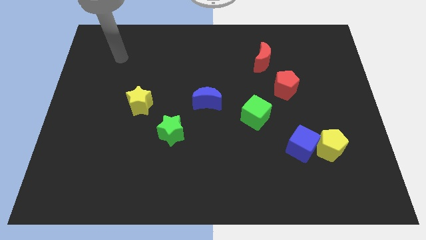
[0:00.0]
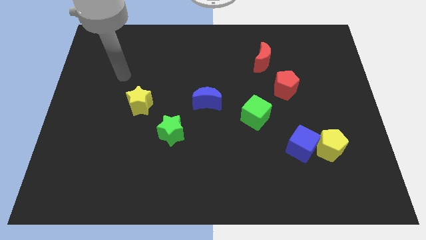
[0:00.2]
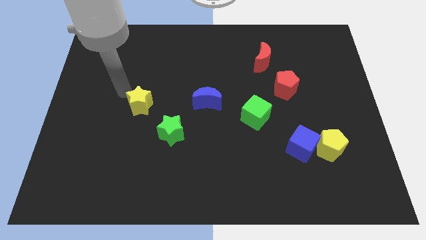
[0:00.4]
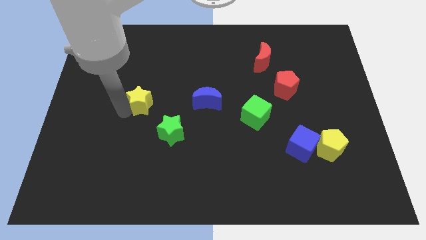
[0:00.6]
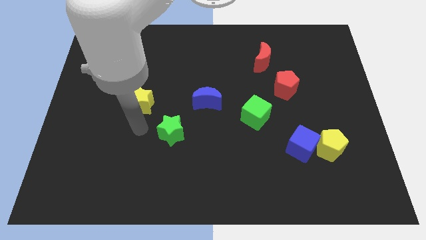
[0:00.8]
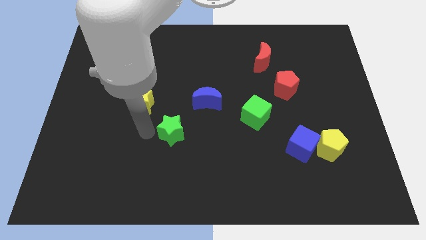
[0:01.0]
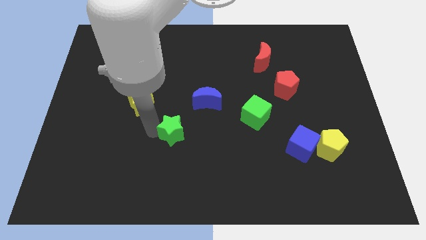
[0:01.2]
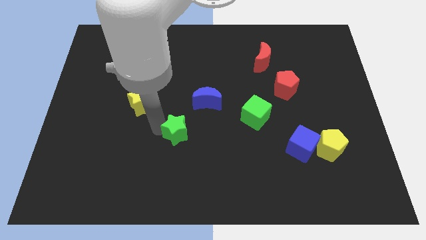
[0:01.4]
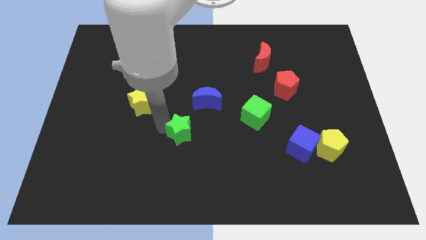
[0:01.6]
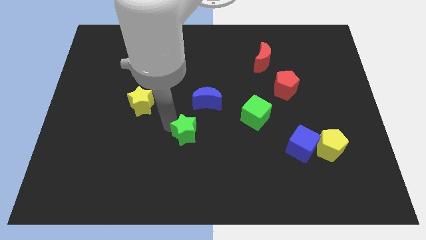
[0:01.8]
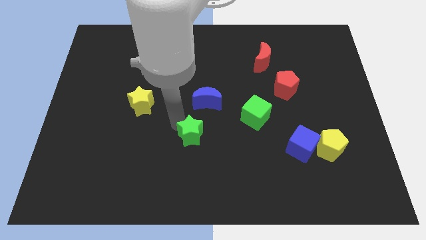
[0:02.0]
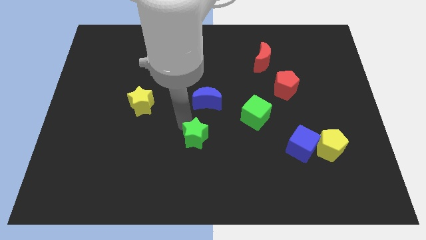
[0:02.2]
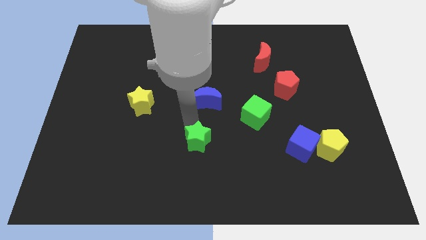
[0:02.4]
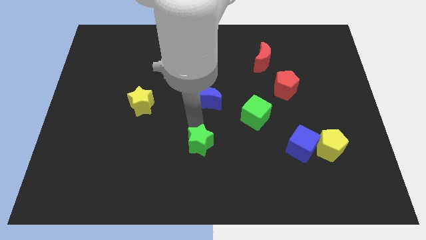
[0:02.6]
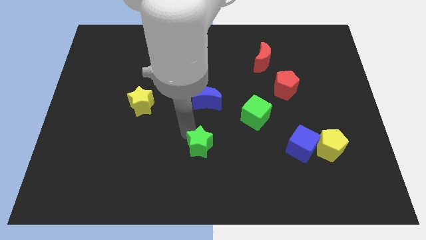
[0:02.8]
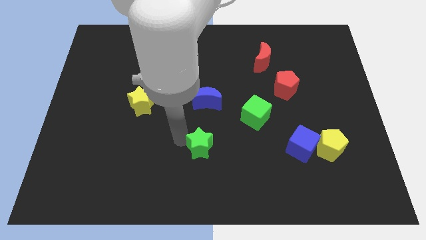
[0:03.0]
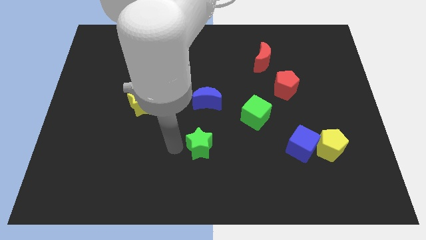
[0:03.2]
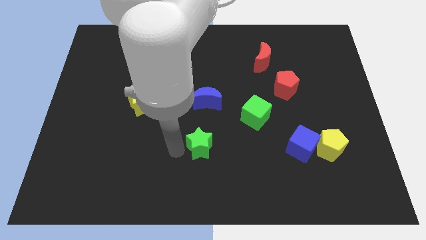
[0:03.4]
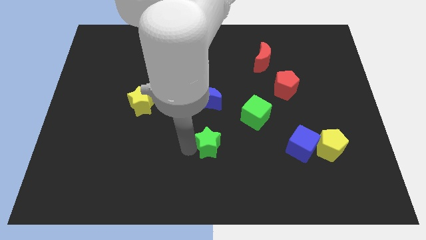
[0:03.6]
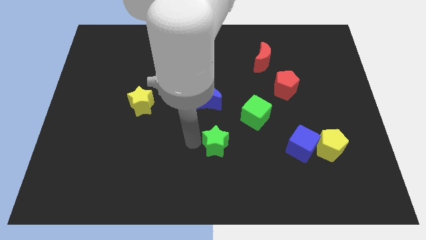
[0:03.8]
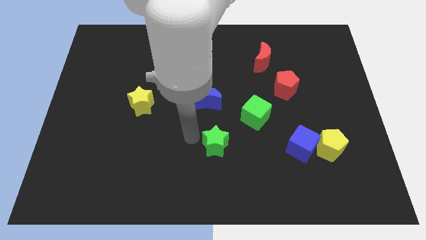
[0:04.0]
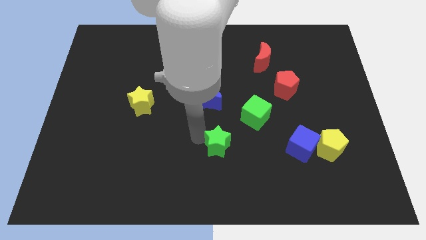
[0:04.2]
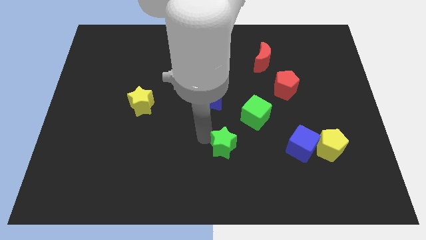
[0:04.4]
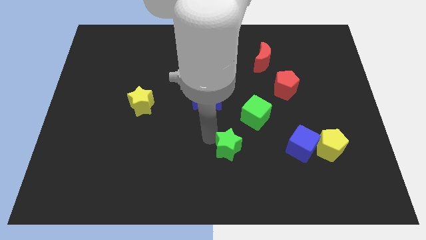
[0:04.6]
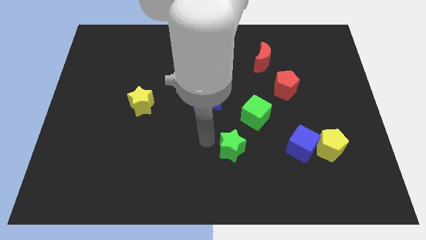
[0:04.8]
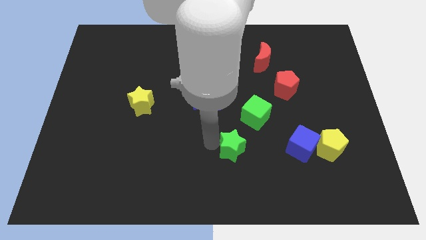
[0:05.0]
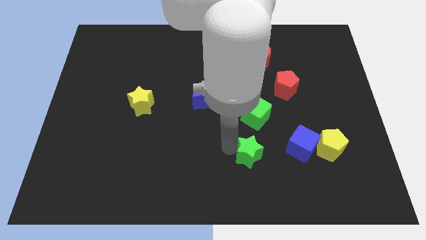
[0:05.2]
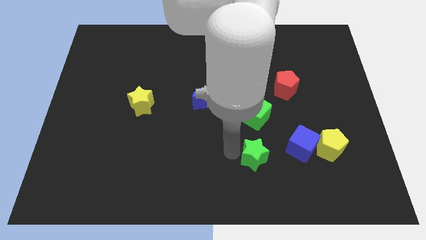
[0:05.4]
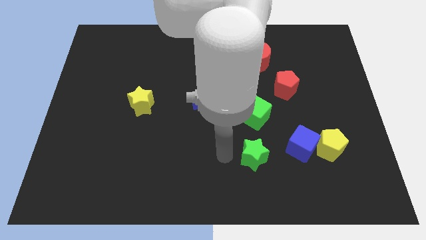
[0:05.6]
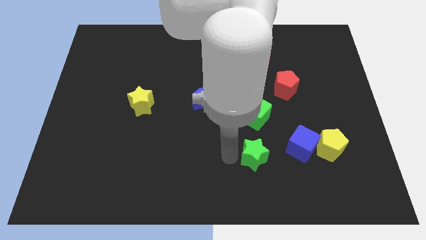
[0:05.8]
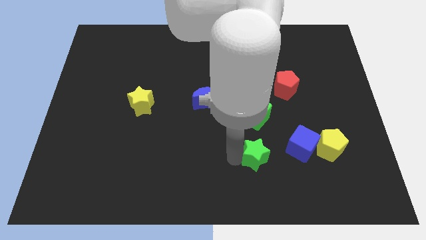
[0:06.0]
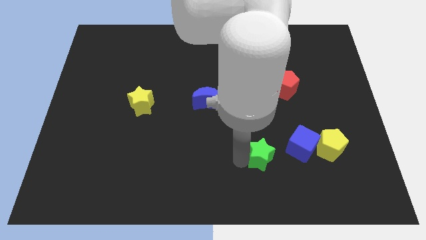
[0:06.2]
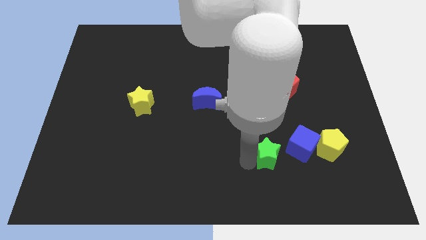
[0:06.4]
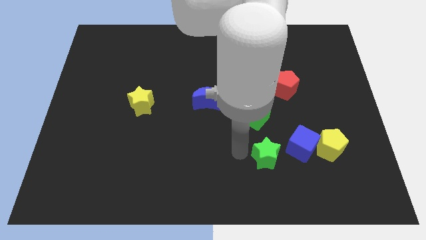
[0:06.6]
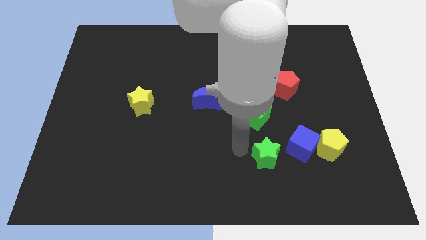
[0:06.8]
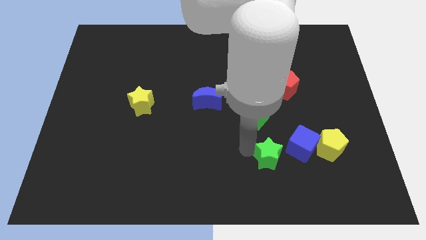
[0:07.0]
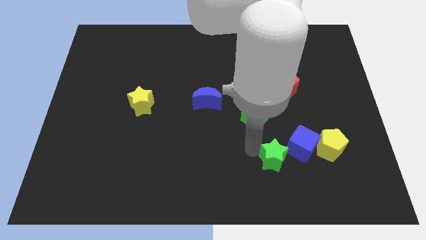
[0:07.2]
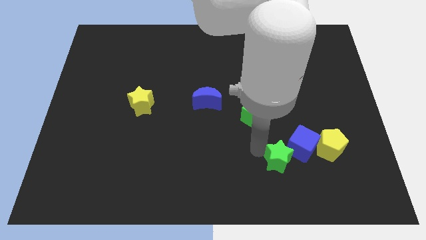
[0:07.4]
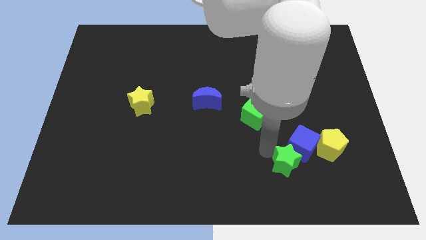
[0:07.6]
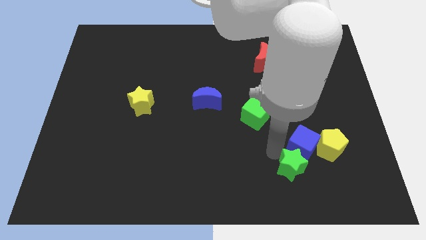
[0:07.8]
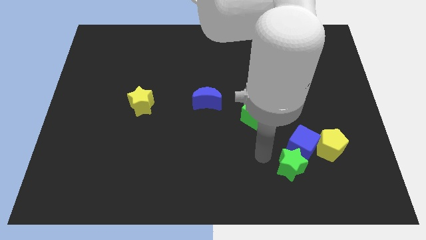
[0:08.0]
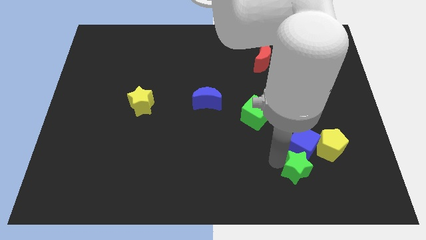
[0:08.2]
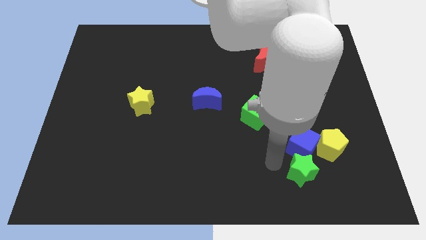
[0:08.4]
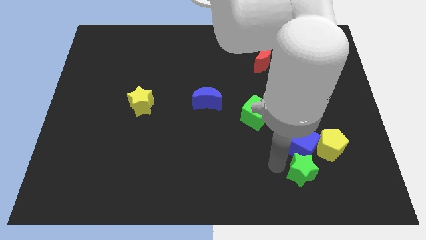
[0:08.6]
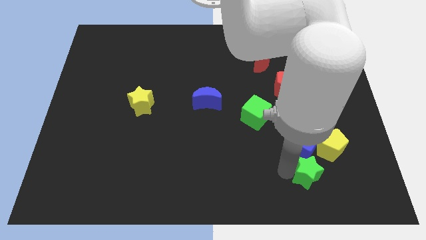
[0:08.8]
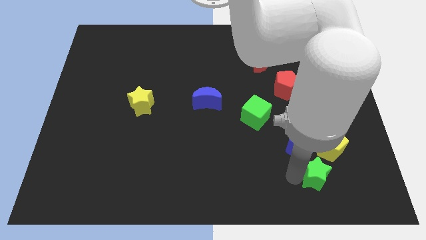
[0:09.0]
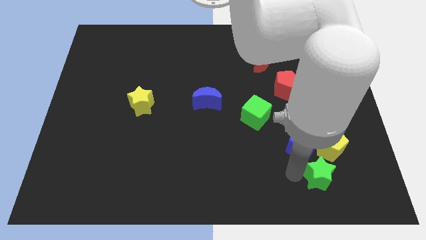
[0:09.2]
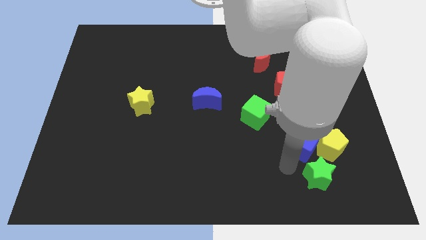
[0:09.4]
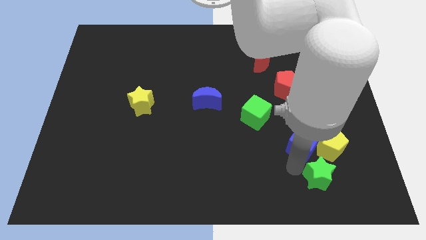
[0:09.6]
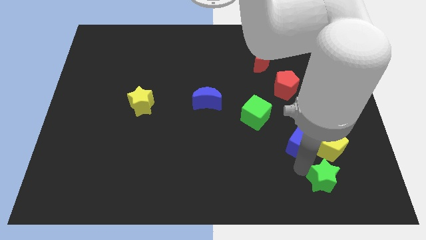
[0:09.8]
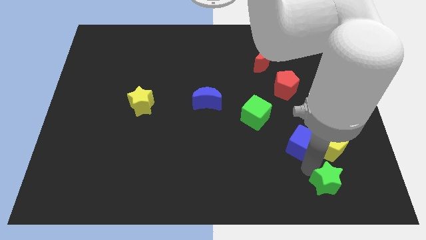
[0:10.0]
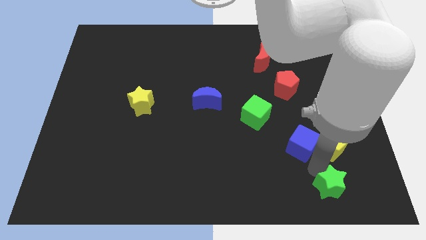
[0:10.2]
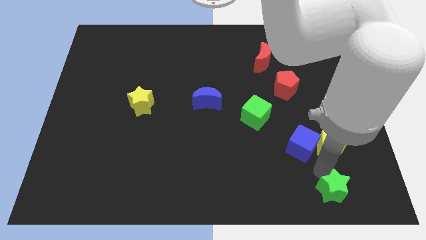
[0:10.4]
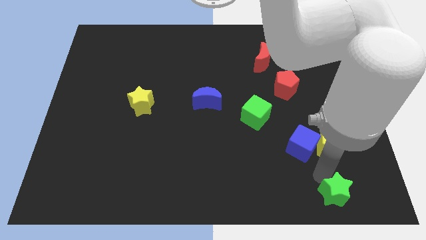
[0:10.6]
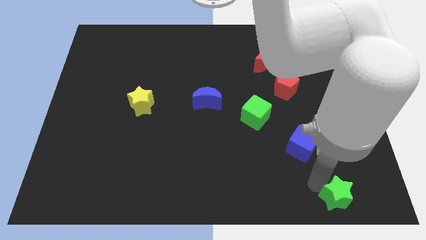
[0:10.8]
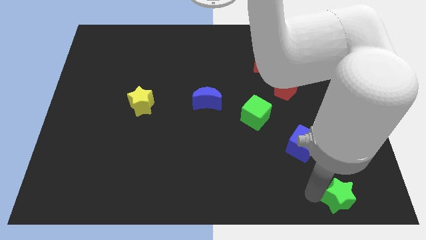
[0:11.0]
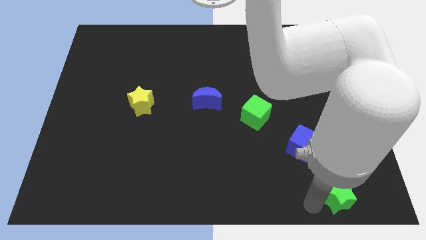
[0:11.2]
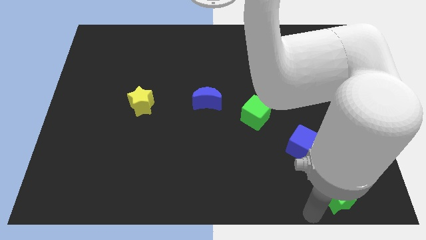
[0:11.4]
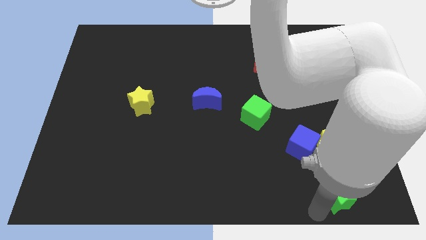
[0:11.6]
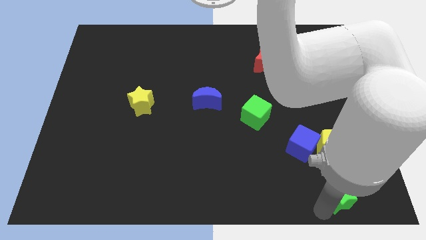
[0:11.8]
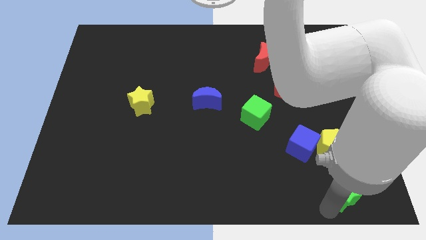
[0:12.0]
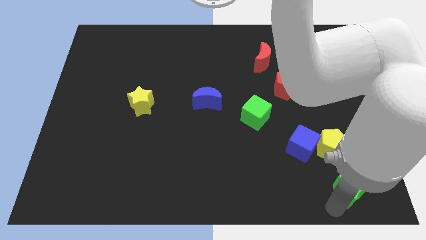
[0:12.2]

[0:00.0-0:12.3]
push the green star to the bottom right corner

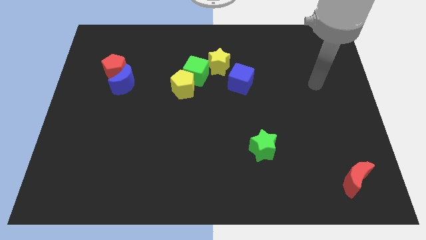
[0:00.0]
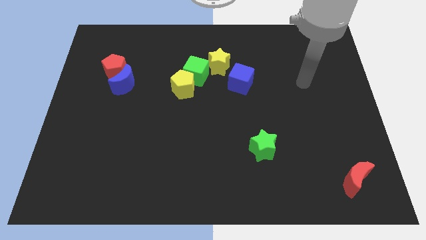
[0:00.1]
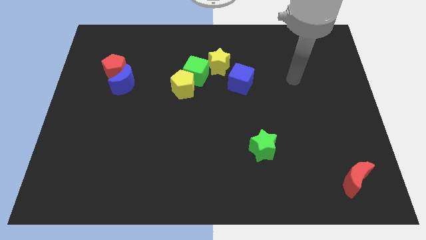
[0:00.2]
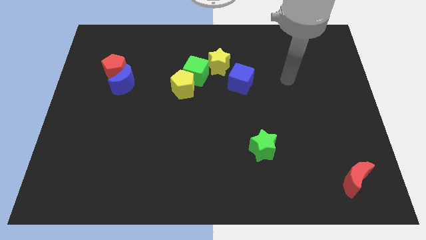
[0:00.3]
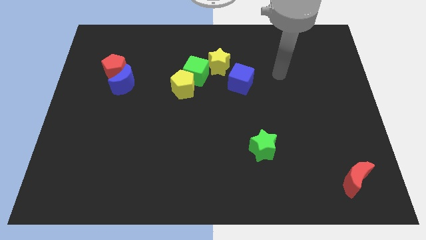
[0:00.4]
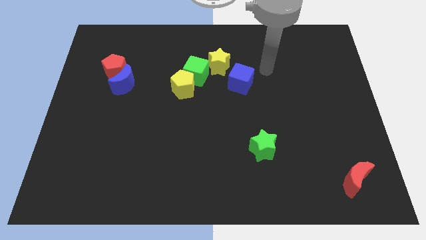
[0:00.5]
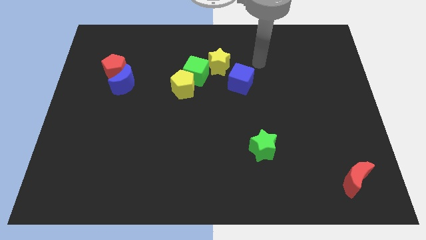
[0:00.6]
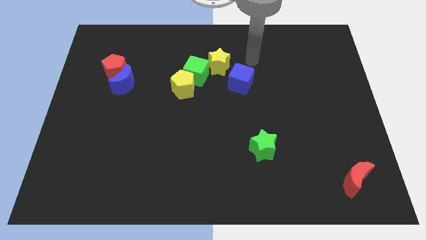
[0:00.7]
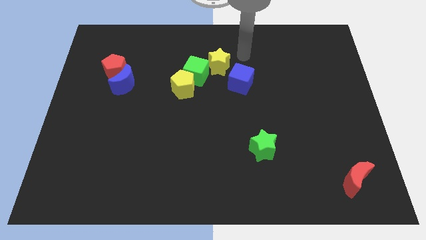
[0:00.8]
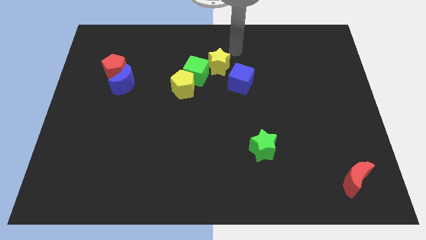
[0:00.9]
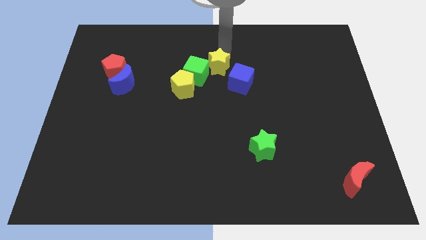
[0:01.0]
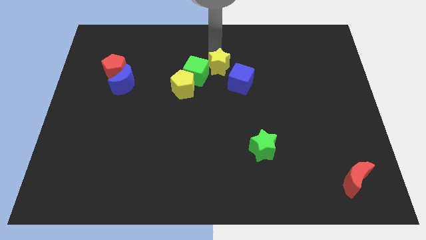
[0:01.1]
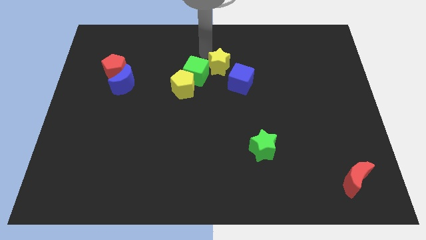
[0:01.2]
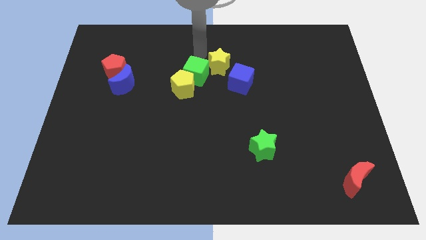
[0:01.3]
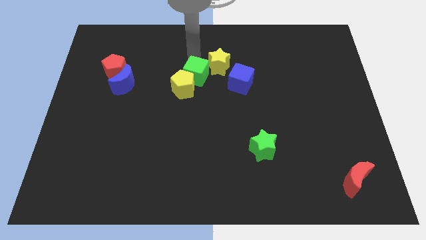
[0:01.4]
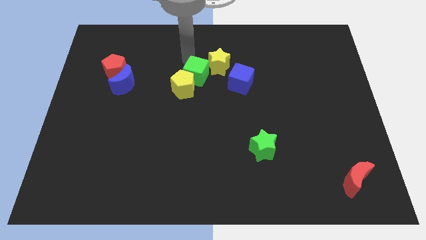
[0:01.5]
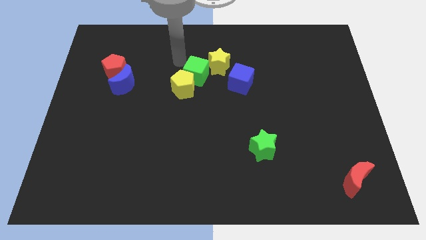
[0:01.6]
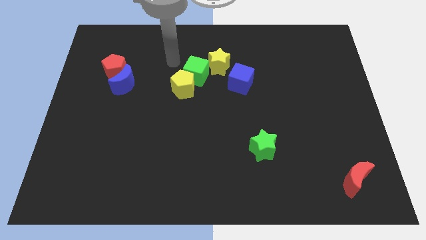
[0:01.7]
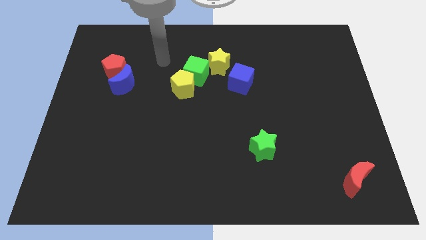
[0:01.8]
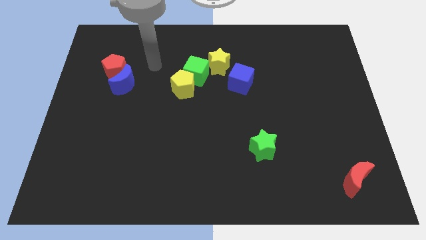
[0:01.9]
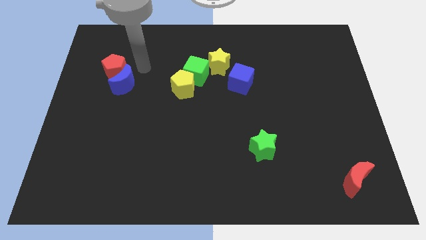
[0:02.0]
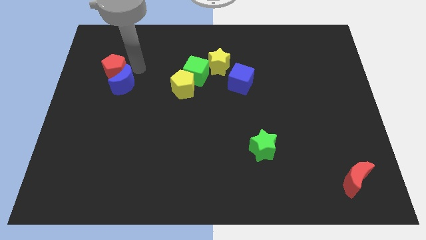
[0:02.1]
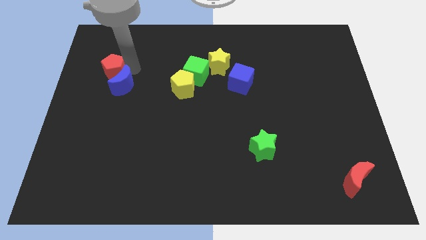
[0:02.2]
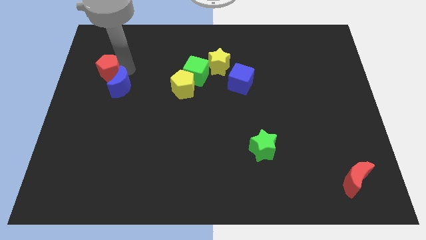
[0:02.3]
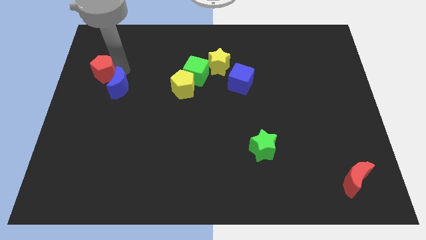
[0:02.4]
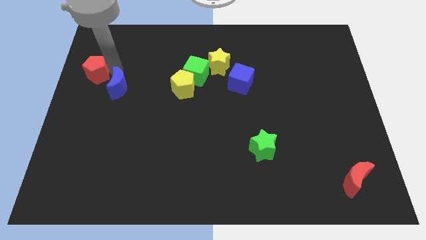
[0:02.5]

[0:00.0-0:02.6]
move the red pentagon to the center left
